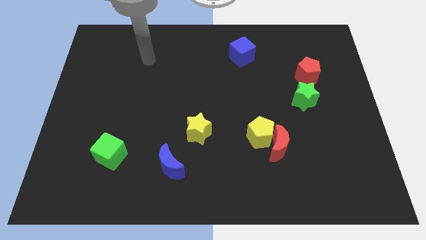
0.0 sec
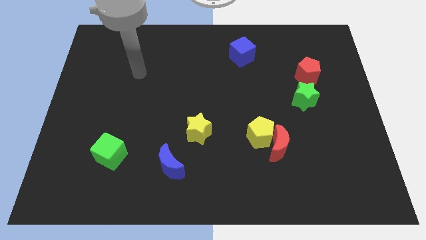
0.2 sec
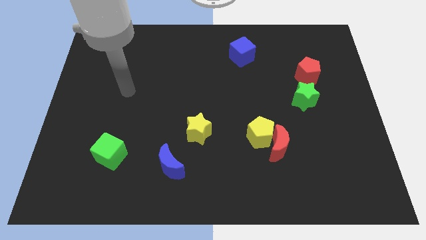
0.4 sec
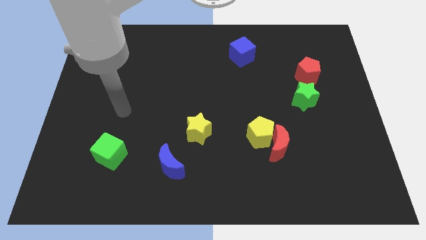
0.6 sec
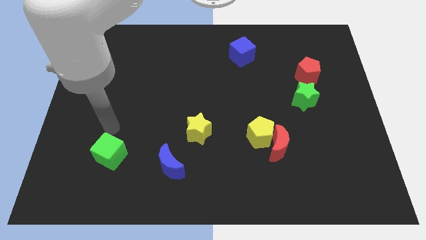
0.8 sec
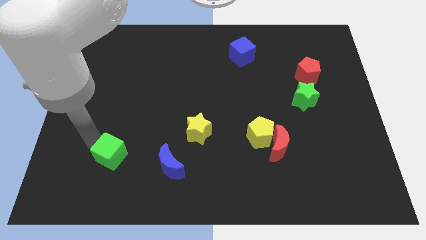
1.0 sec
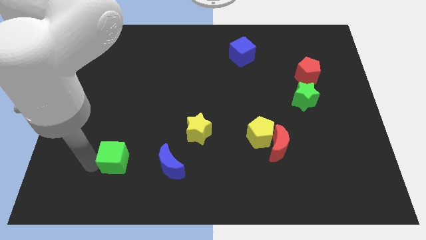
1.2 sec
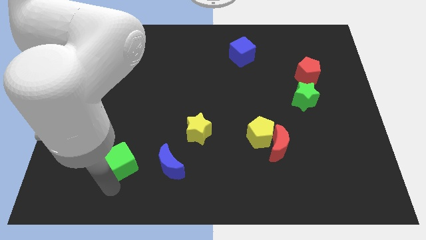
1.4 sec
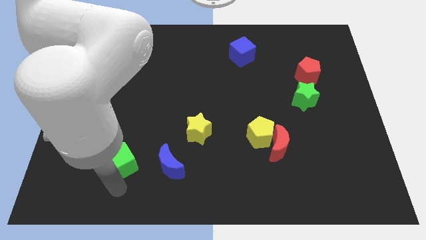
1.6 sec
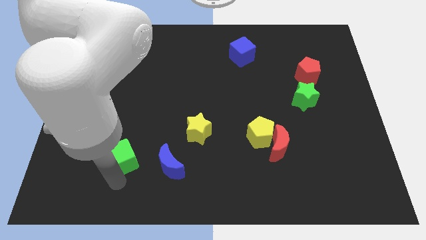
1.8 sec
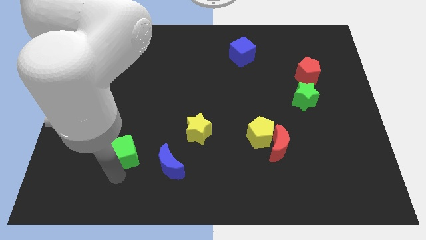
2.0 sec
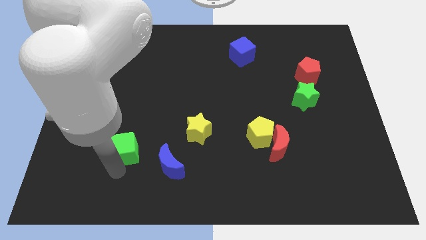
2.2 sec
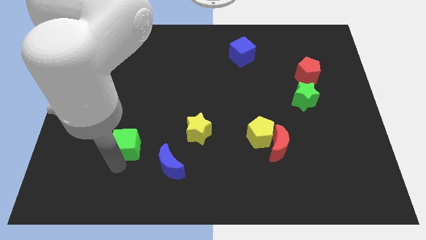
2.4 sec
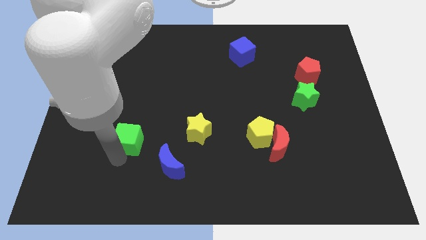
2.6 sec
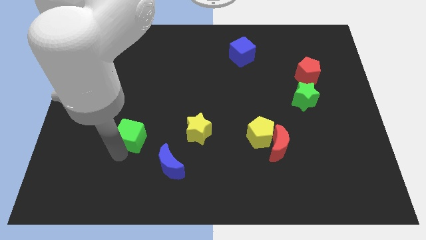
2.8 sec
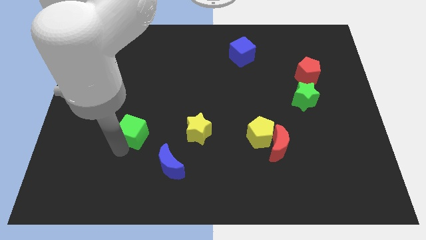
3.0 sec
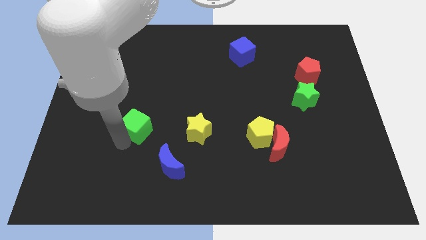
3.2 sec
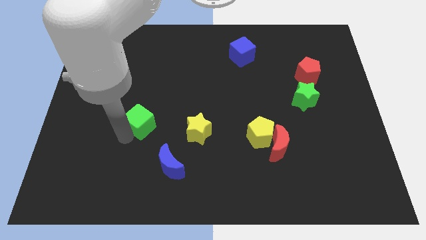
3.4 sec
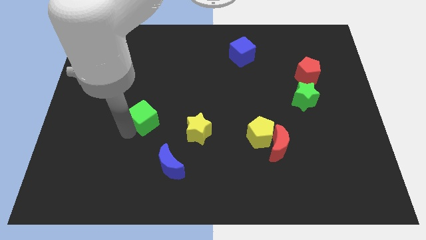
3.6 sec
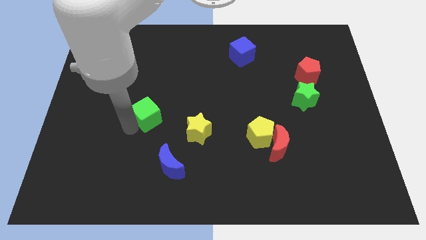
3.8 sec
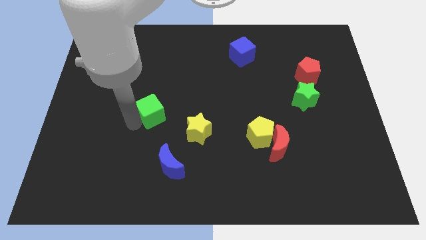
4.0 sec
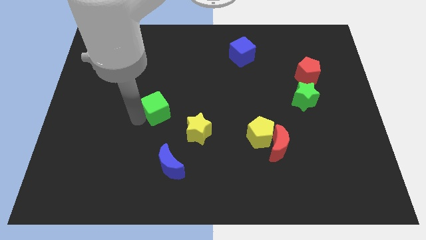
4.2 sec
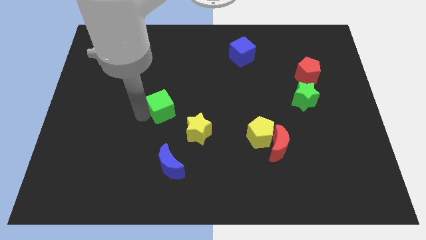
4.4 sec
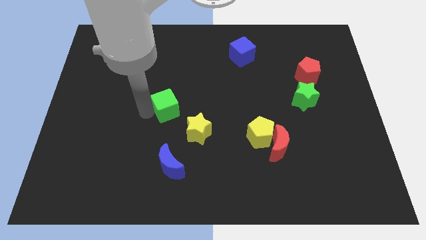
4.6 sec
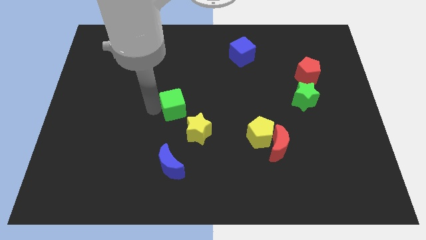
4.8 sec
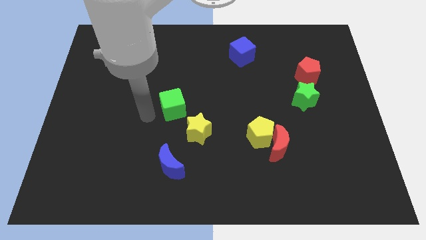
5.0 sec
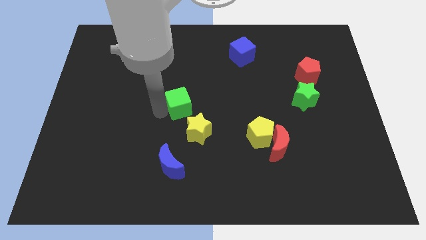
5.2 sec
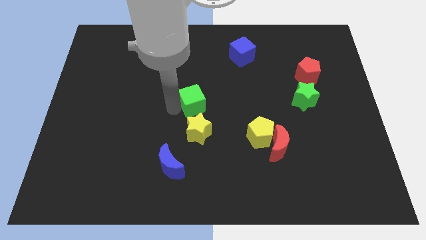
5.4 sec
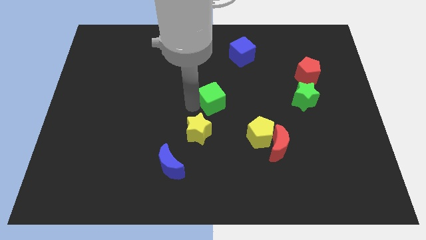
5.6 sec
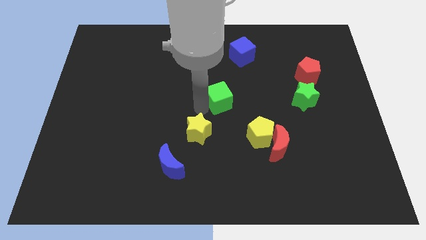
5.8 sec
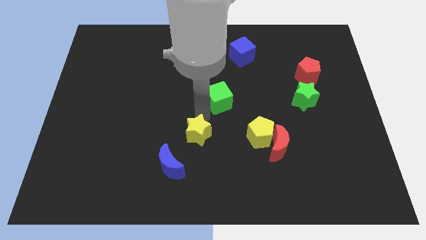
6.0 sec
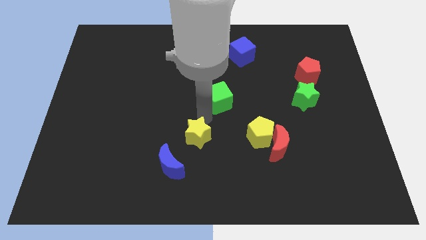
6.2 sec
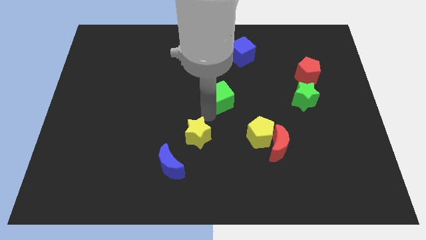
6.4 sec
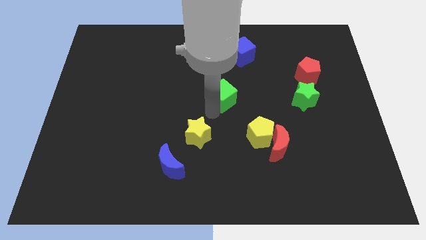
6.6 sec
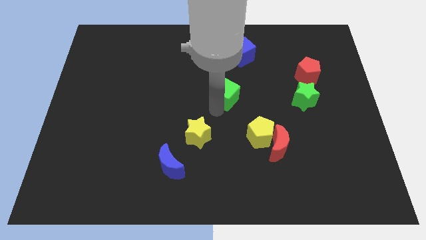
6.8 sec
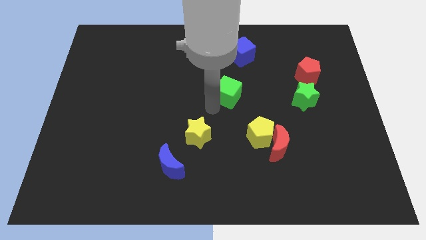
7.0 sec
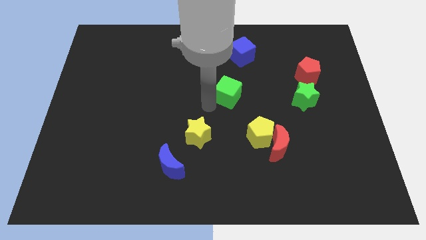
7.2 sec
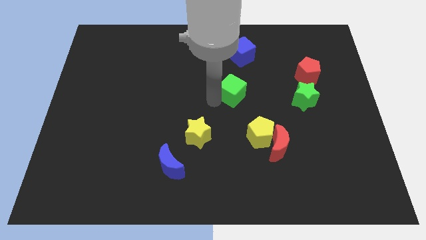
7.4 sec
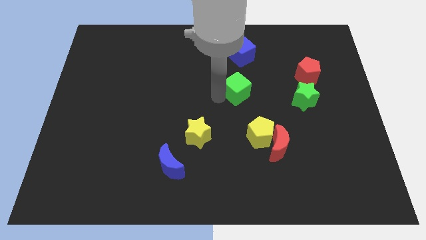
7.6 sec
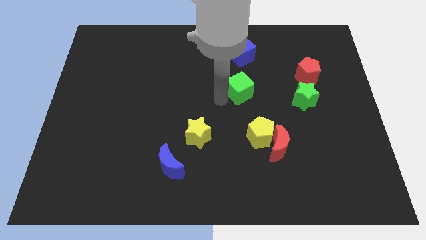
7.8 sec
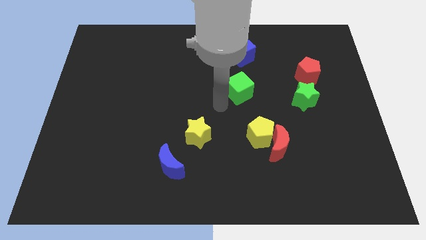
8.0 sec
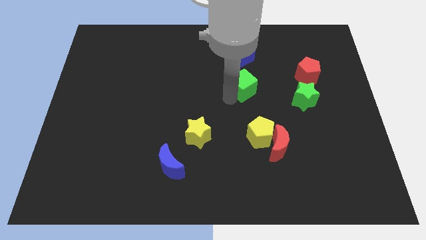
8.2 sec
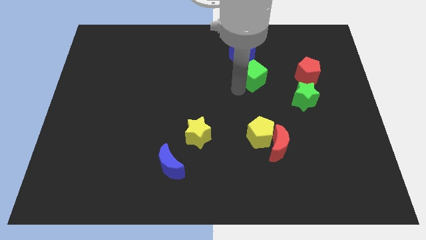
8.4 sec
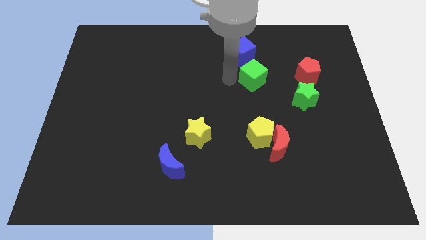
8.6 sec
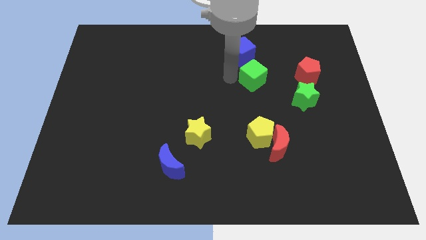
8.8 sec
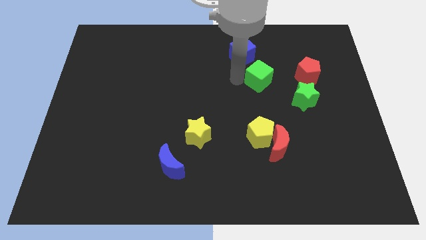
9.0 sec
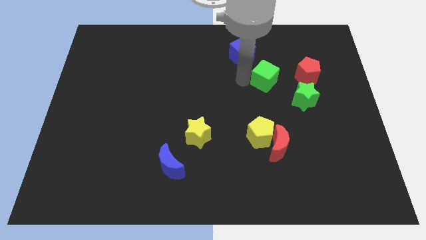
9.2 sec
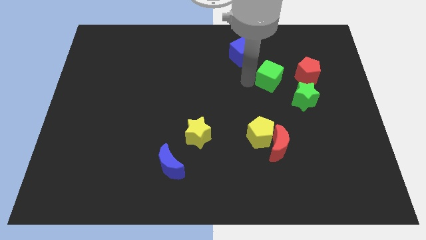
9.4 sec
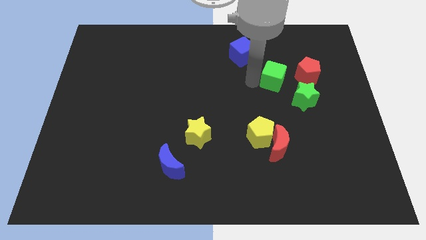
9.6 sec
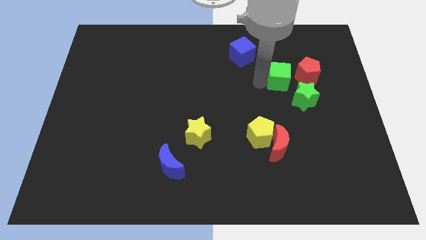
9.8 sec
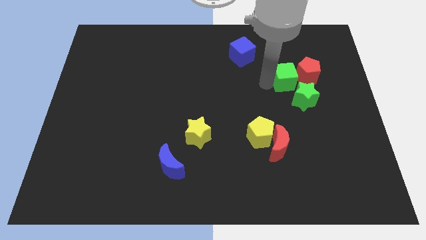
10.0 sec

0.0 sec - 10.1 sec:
push the green cube next to the red pentagon

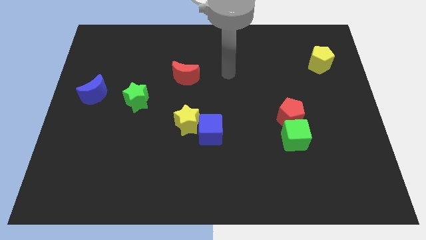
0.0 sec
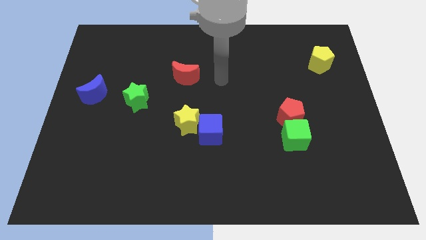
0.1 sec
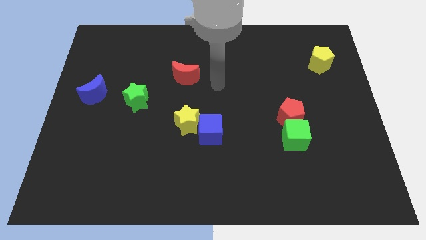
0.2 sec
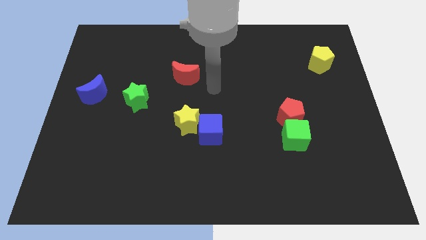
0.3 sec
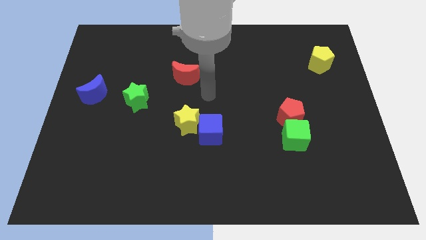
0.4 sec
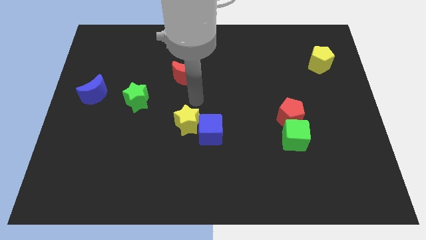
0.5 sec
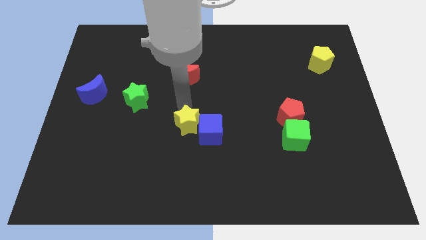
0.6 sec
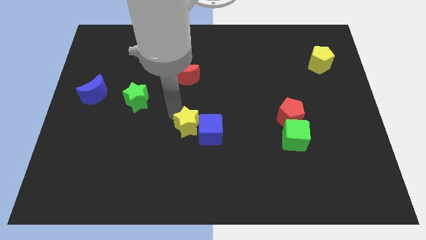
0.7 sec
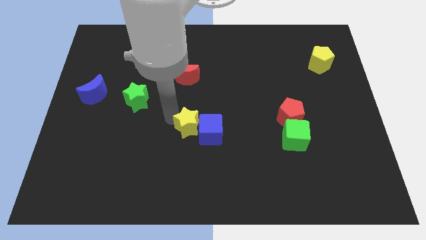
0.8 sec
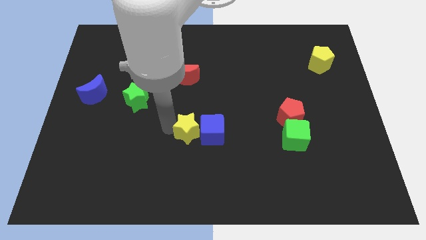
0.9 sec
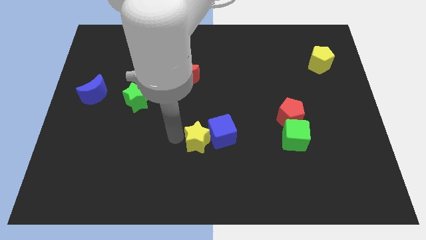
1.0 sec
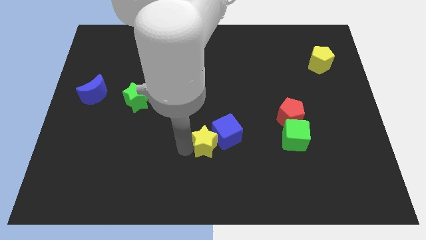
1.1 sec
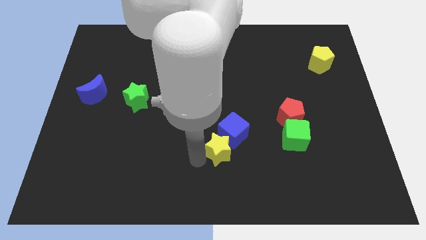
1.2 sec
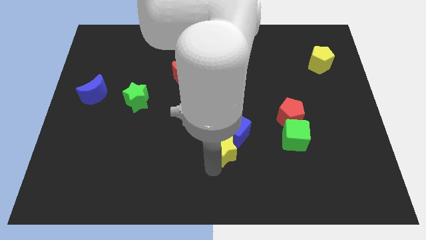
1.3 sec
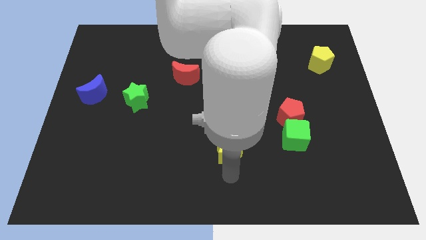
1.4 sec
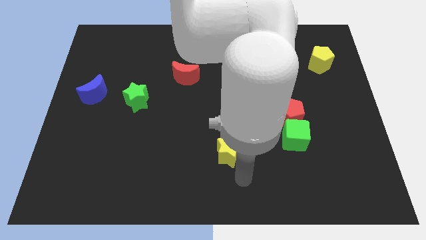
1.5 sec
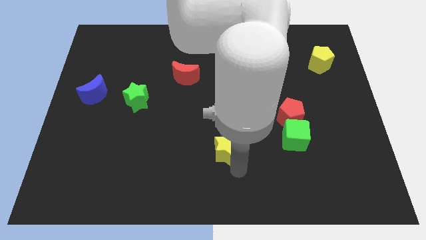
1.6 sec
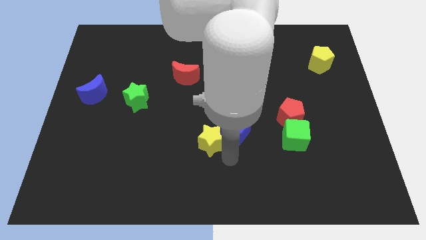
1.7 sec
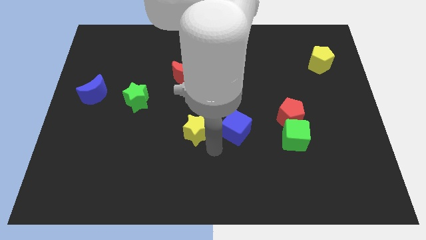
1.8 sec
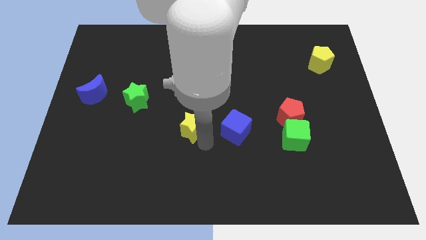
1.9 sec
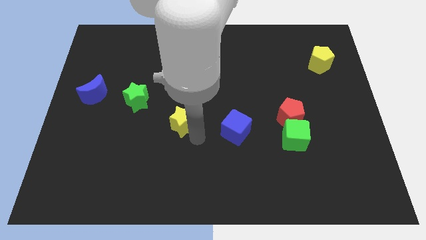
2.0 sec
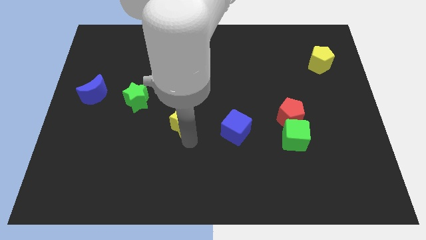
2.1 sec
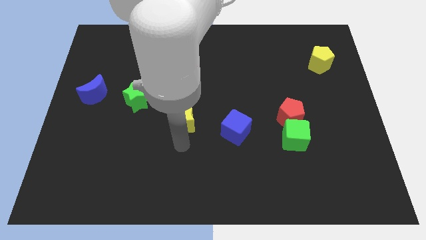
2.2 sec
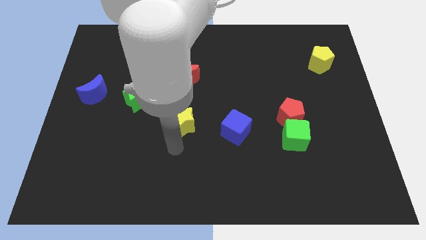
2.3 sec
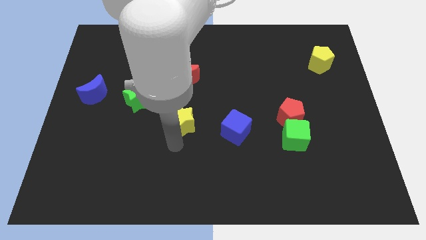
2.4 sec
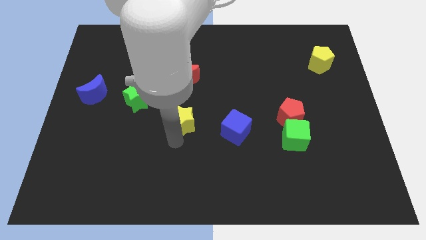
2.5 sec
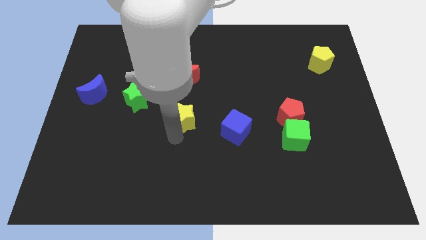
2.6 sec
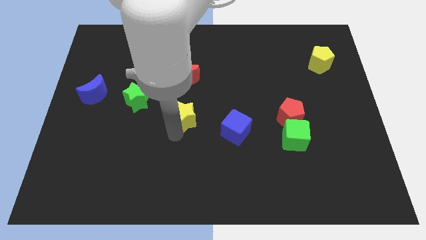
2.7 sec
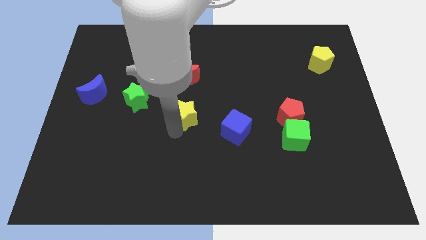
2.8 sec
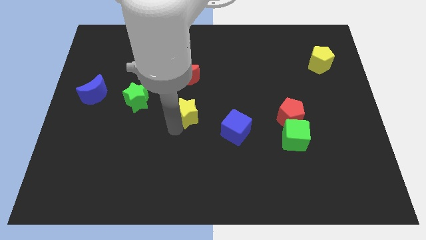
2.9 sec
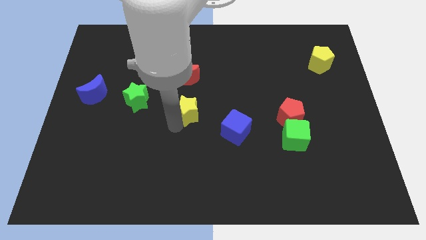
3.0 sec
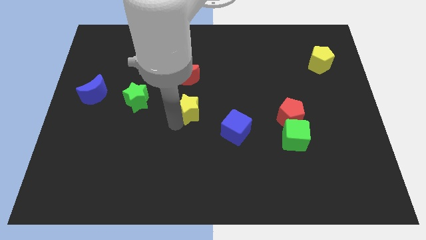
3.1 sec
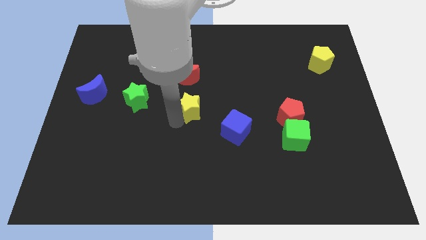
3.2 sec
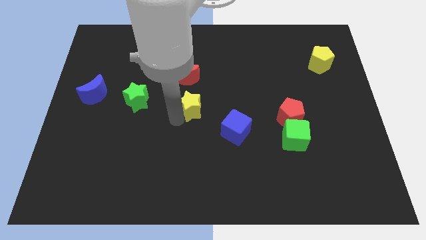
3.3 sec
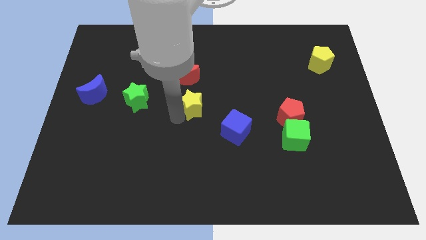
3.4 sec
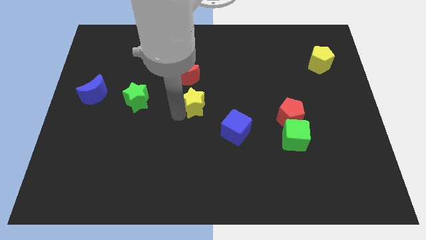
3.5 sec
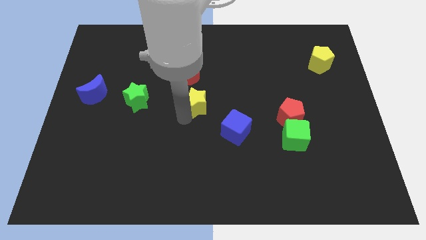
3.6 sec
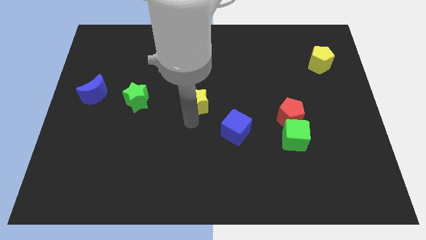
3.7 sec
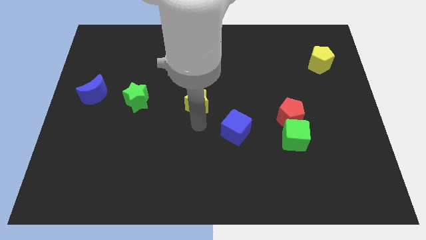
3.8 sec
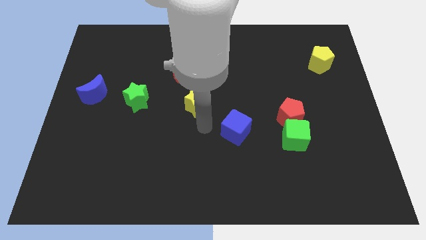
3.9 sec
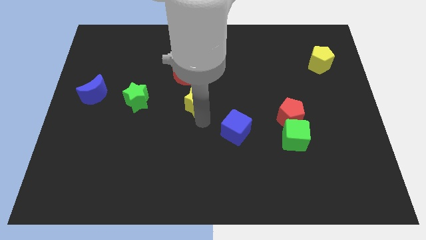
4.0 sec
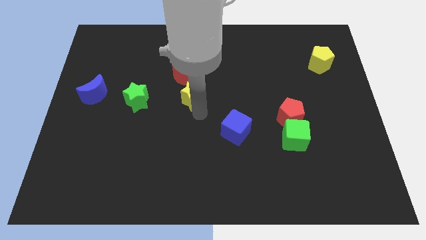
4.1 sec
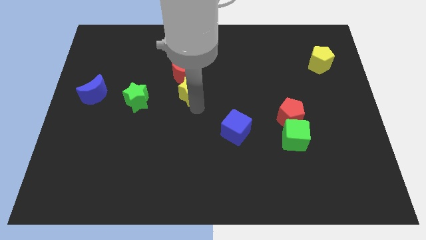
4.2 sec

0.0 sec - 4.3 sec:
move the yellow star next to the red moon
